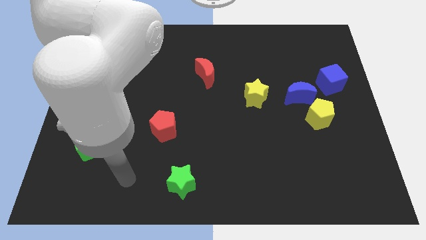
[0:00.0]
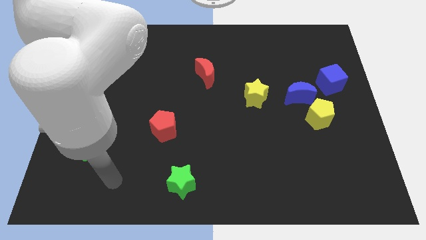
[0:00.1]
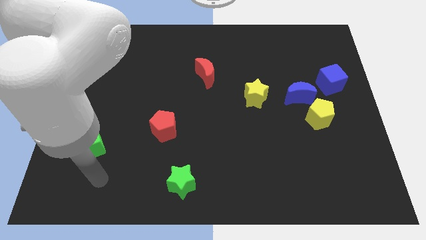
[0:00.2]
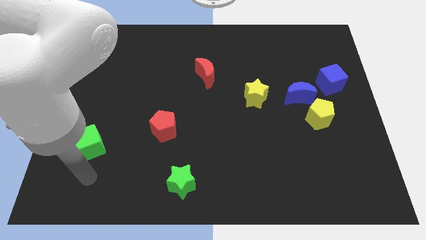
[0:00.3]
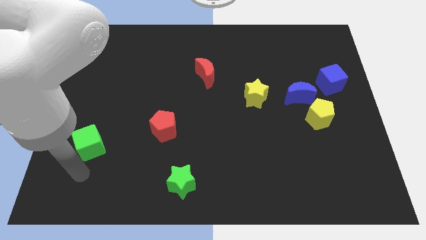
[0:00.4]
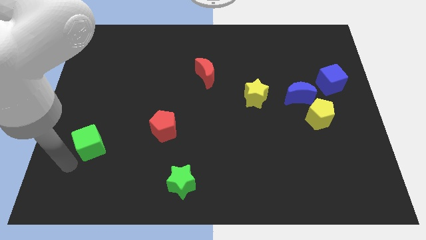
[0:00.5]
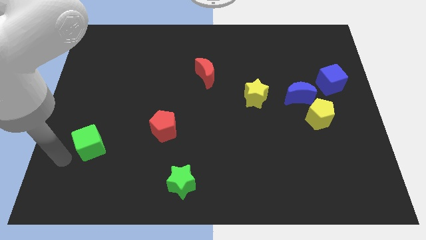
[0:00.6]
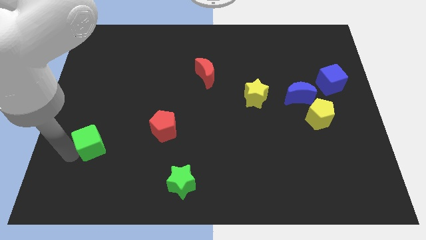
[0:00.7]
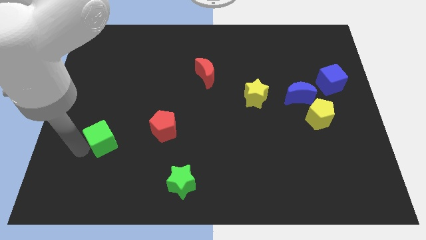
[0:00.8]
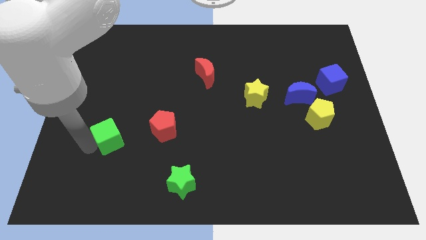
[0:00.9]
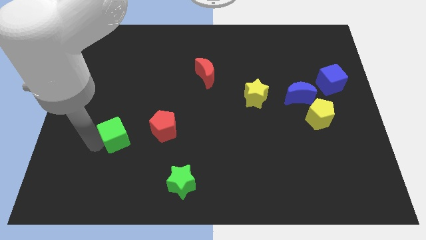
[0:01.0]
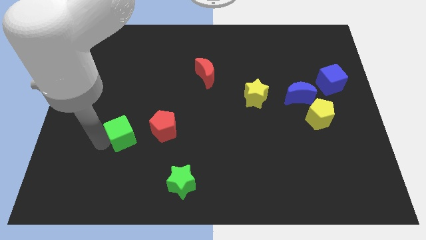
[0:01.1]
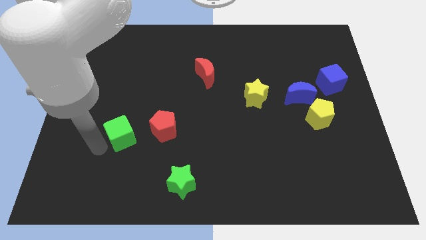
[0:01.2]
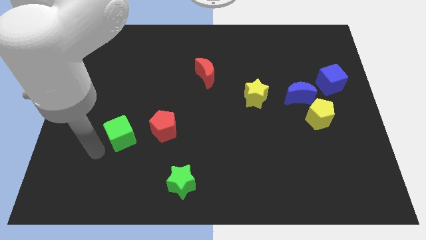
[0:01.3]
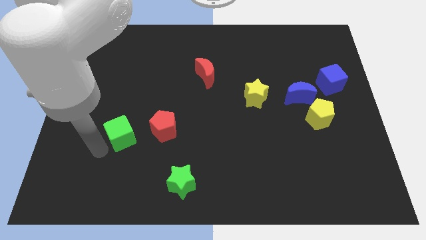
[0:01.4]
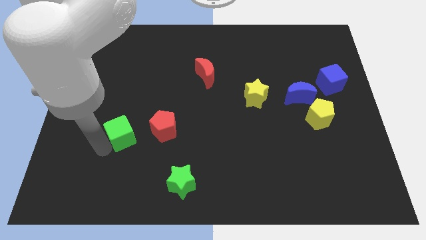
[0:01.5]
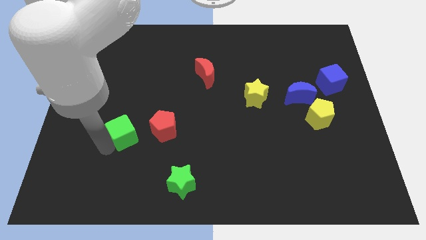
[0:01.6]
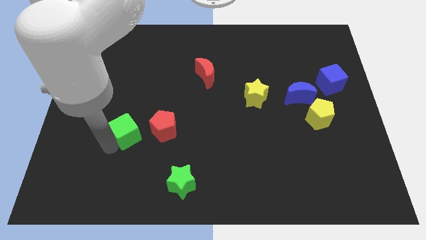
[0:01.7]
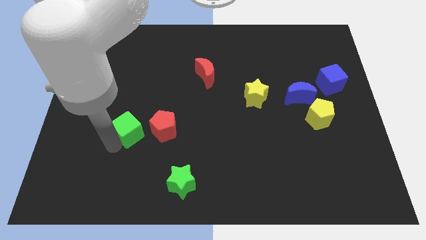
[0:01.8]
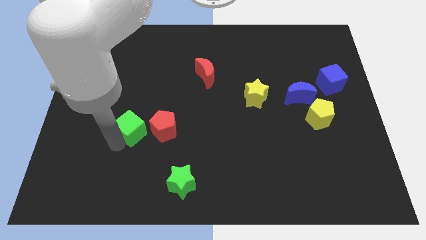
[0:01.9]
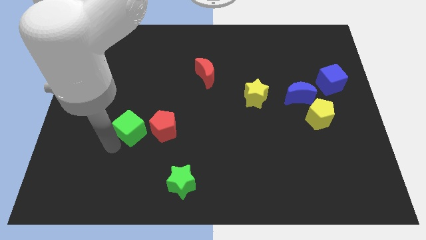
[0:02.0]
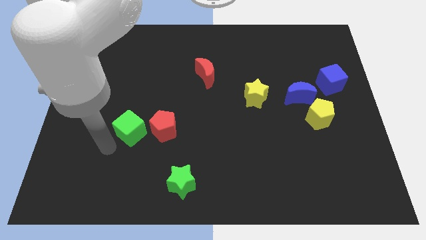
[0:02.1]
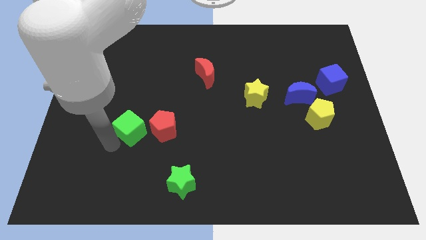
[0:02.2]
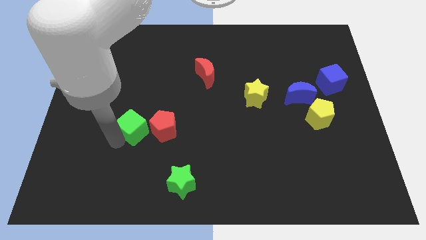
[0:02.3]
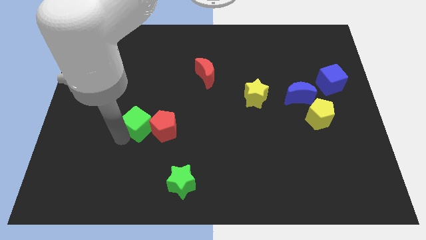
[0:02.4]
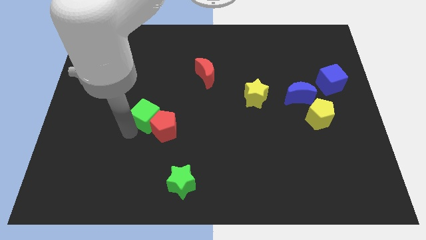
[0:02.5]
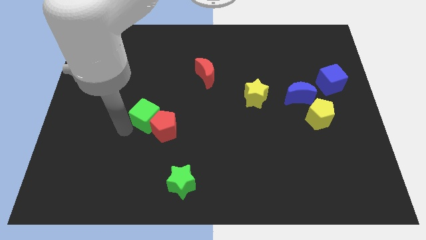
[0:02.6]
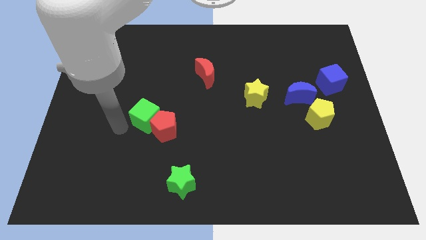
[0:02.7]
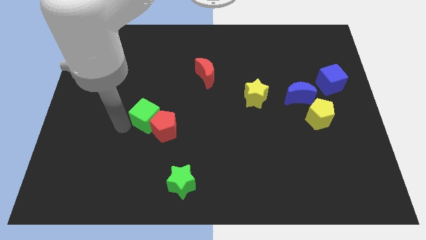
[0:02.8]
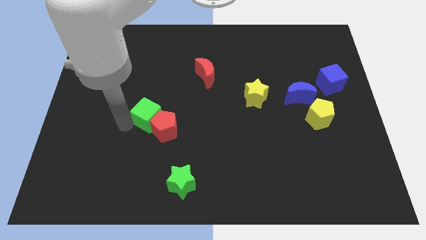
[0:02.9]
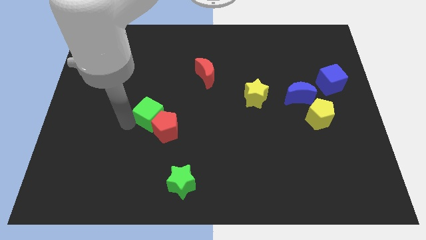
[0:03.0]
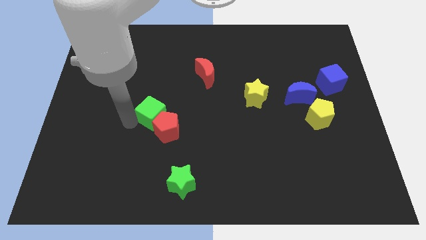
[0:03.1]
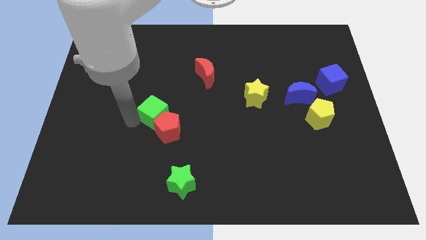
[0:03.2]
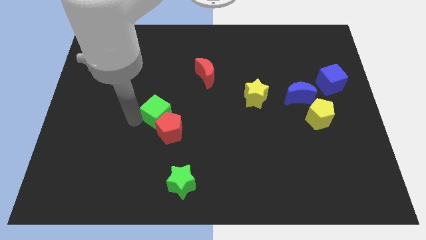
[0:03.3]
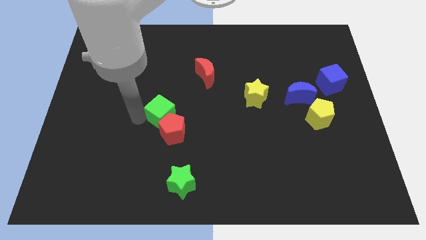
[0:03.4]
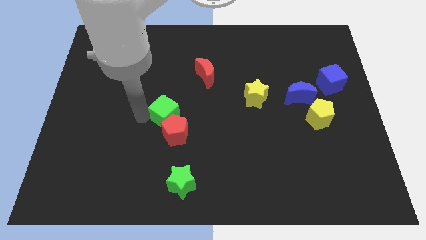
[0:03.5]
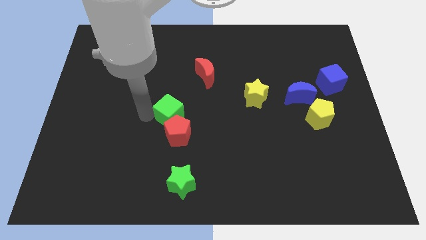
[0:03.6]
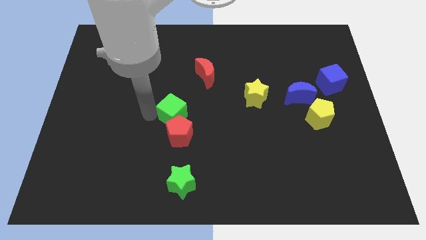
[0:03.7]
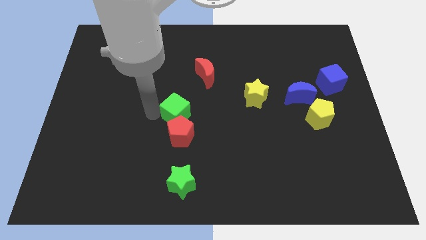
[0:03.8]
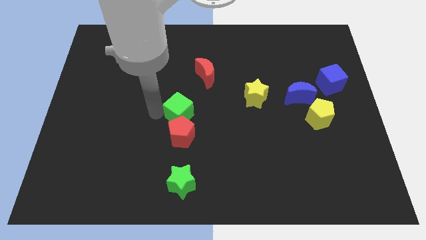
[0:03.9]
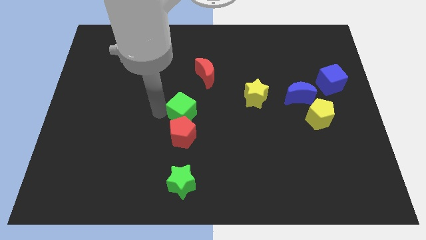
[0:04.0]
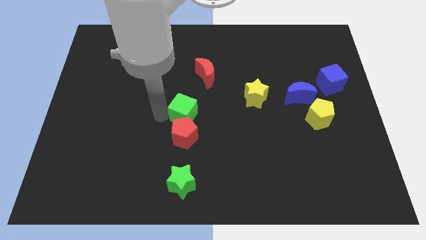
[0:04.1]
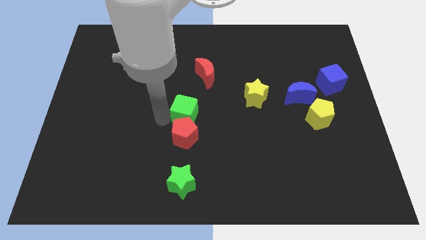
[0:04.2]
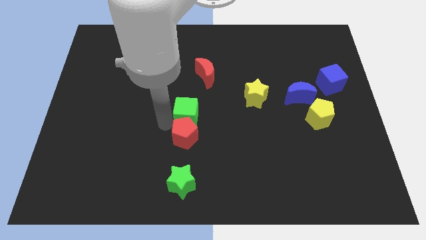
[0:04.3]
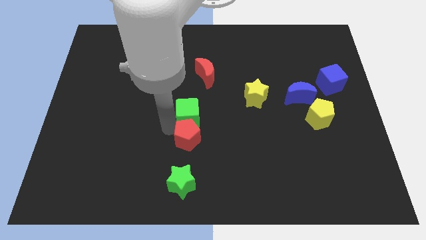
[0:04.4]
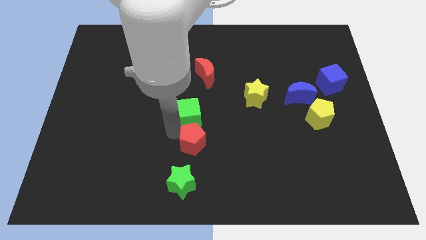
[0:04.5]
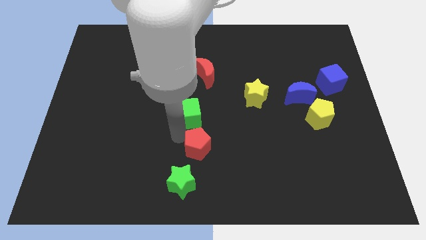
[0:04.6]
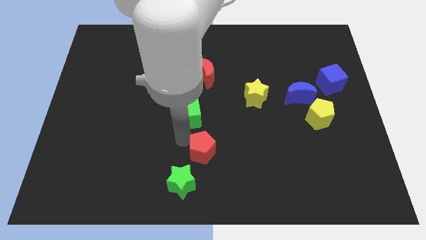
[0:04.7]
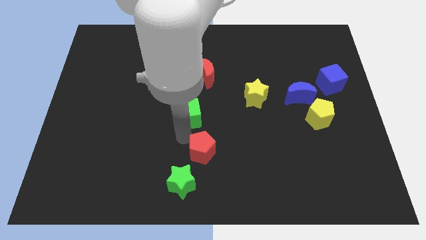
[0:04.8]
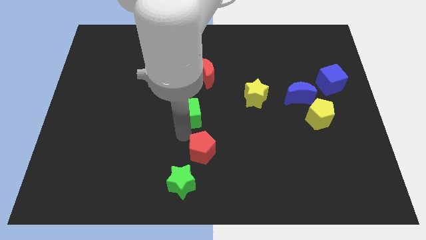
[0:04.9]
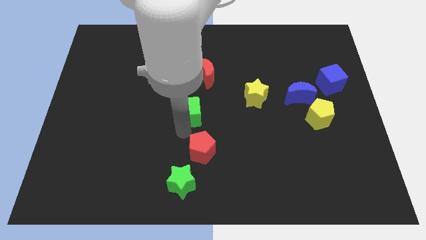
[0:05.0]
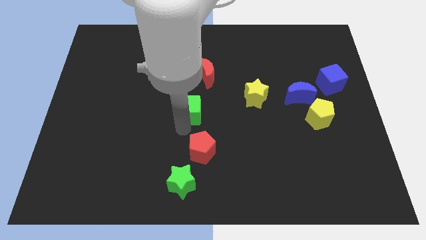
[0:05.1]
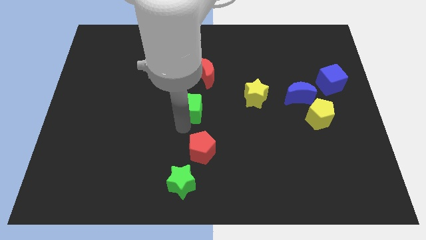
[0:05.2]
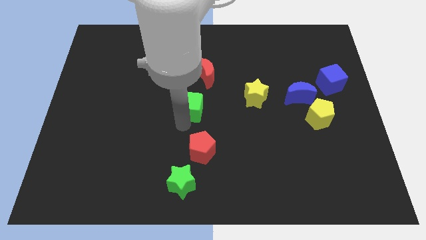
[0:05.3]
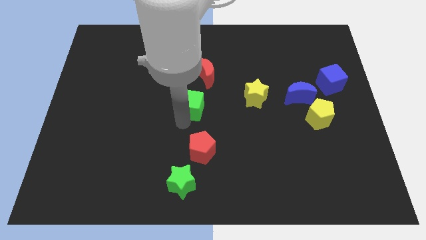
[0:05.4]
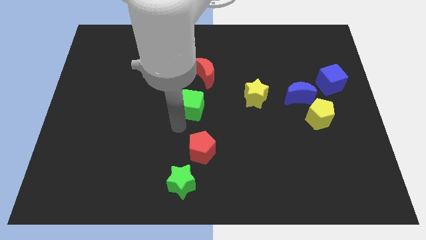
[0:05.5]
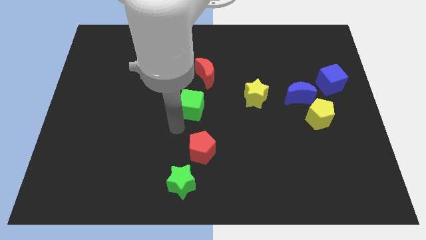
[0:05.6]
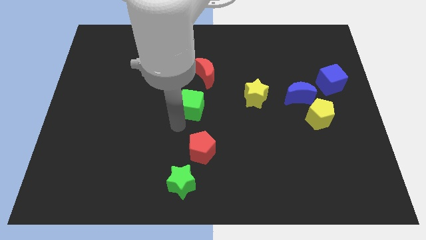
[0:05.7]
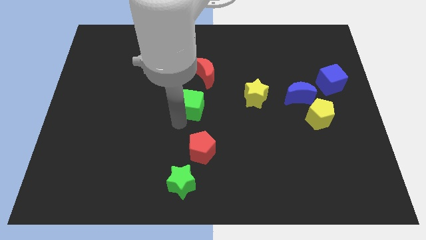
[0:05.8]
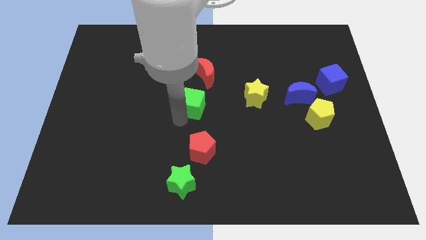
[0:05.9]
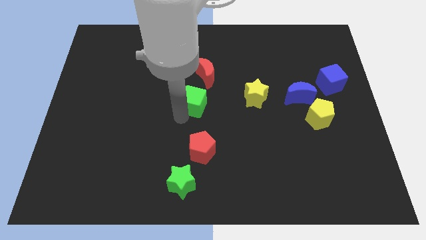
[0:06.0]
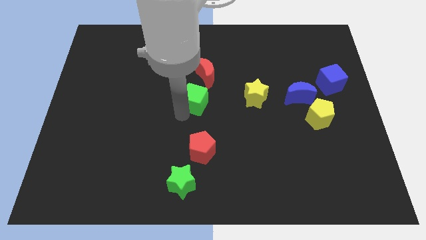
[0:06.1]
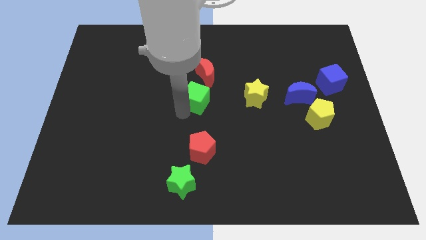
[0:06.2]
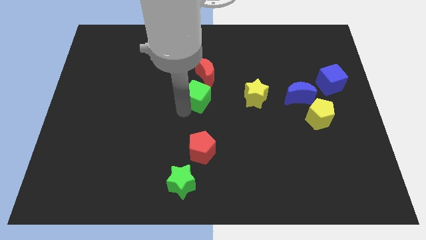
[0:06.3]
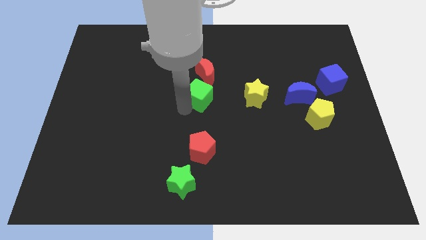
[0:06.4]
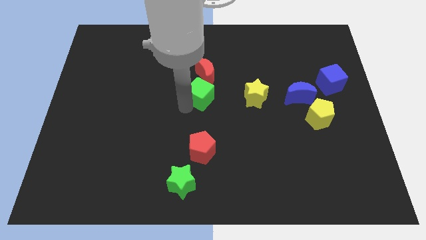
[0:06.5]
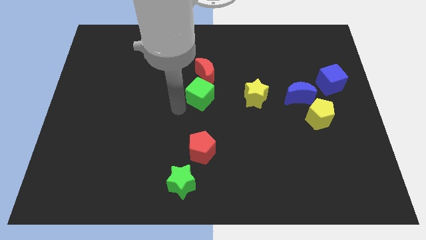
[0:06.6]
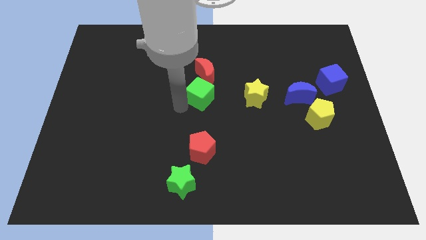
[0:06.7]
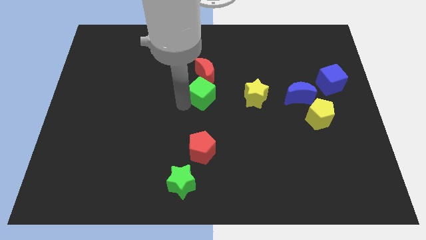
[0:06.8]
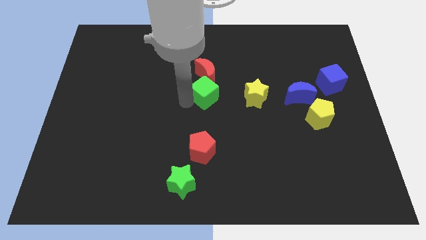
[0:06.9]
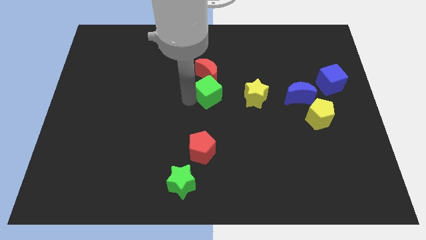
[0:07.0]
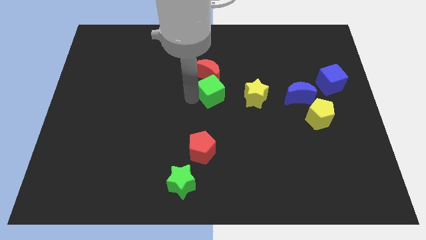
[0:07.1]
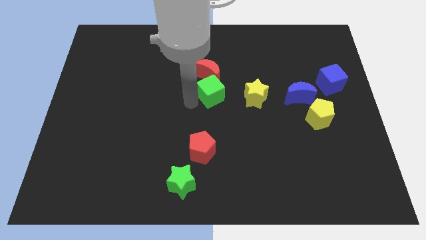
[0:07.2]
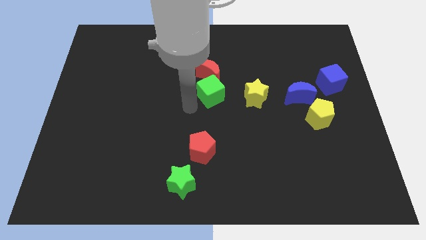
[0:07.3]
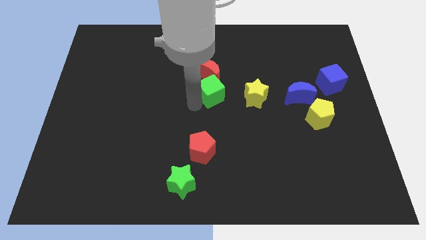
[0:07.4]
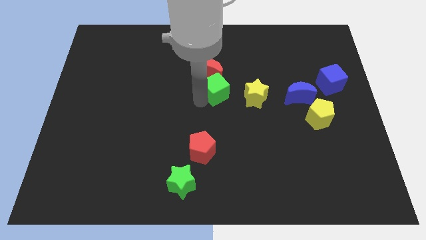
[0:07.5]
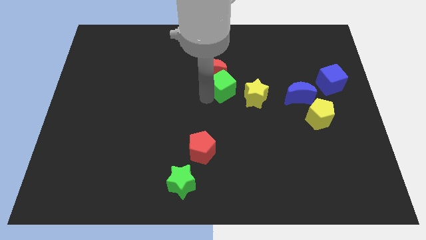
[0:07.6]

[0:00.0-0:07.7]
slide the green cube to the top left of the yellow star

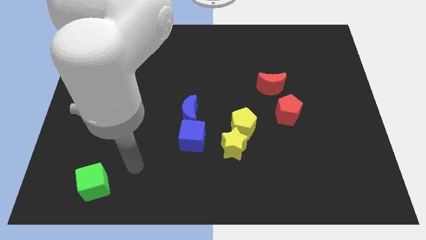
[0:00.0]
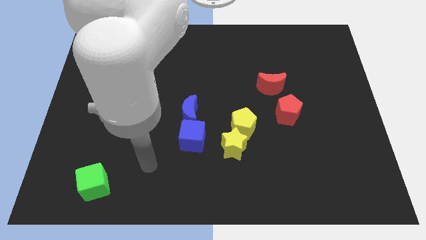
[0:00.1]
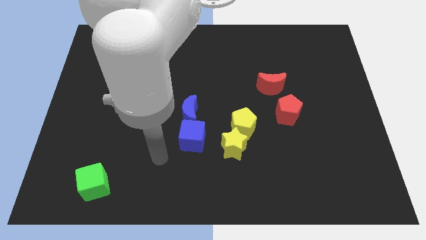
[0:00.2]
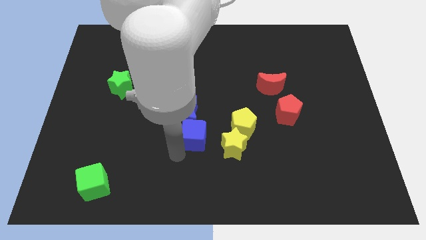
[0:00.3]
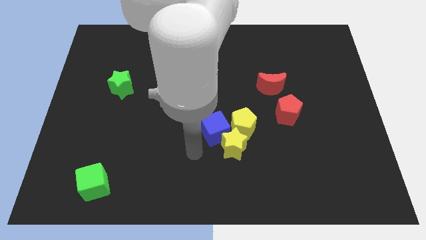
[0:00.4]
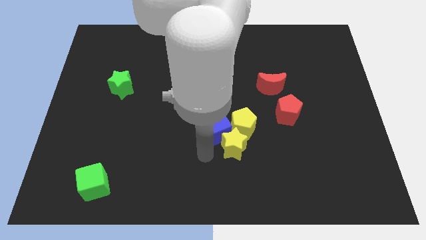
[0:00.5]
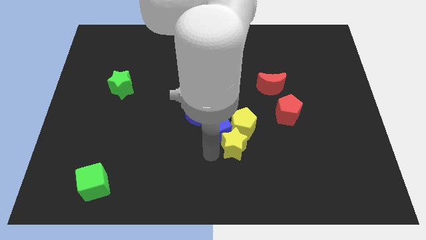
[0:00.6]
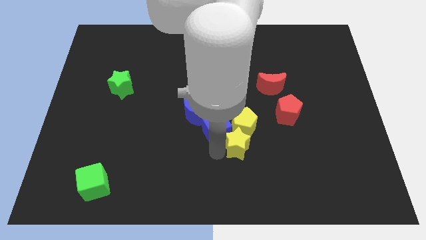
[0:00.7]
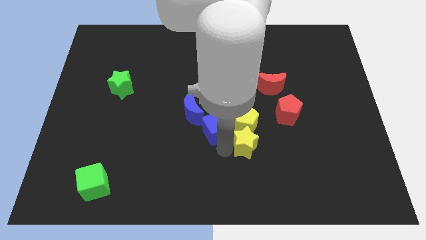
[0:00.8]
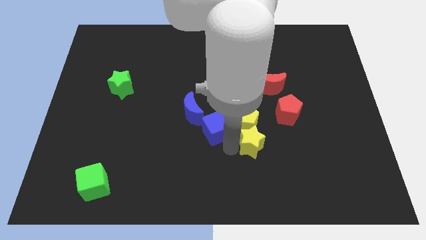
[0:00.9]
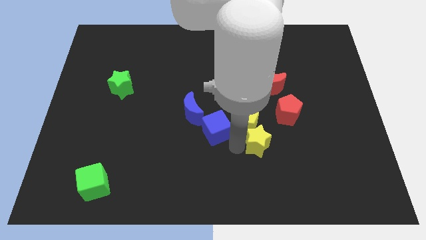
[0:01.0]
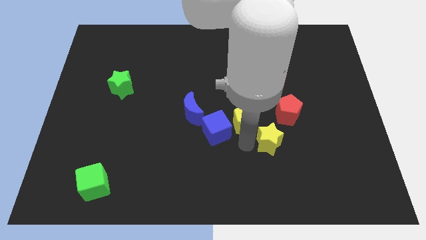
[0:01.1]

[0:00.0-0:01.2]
put the yellow star below the red pentagon
